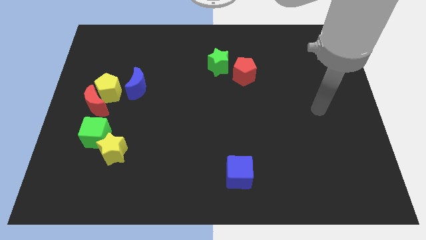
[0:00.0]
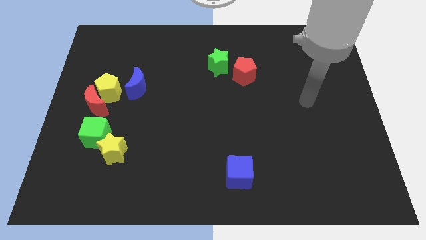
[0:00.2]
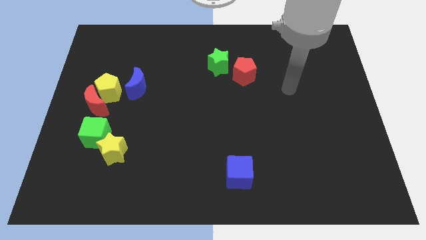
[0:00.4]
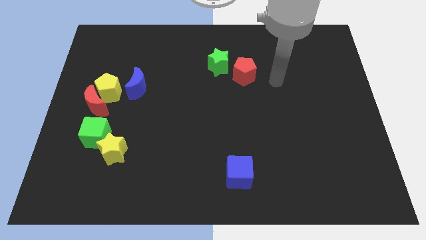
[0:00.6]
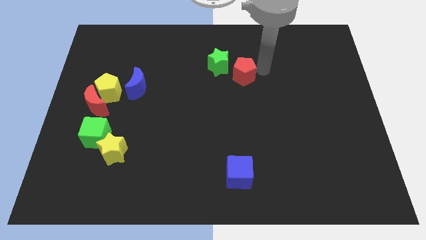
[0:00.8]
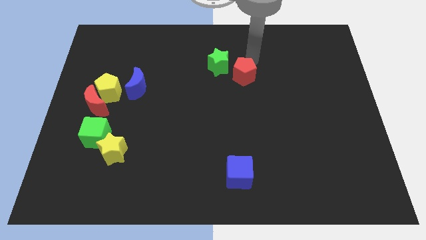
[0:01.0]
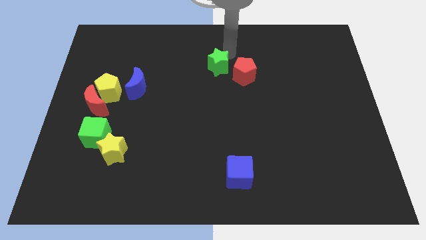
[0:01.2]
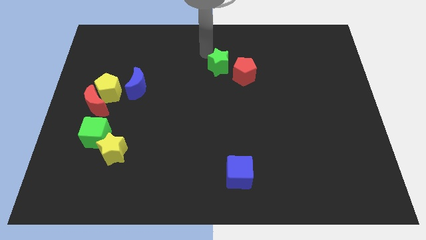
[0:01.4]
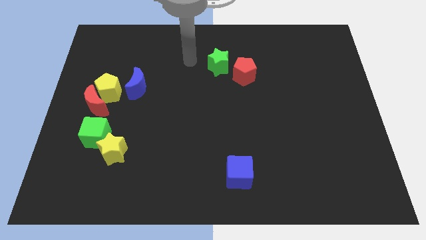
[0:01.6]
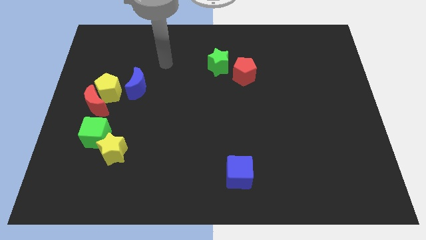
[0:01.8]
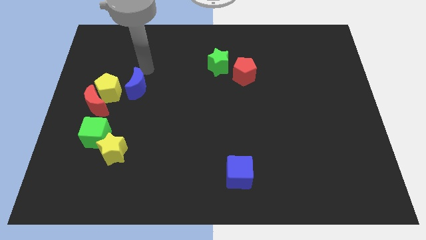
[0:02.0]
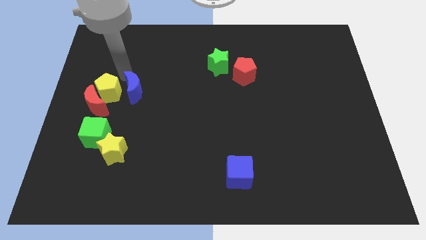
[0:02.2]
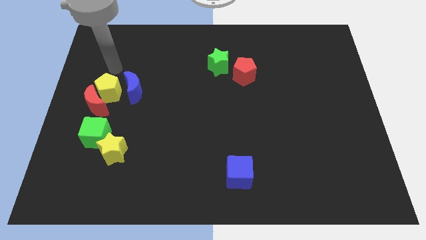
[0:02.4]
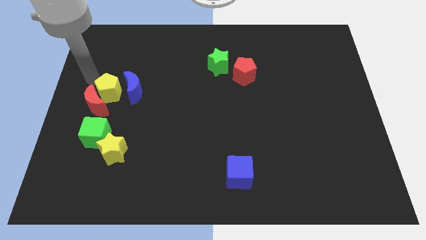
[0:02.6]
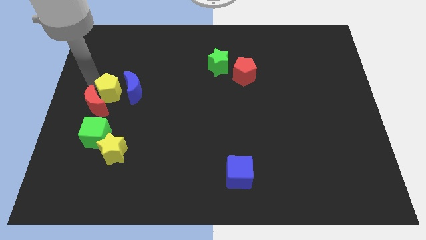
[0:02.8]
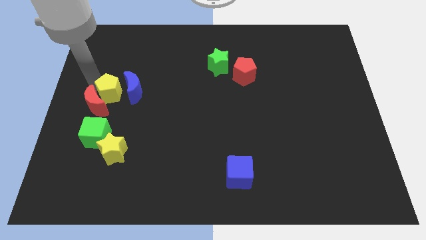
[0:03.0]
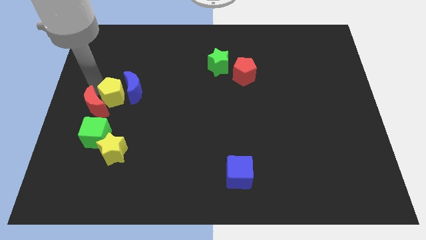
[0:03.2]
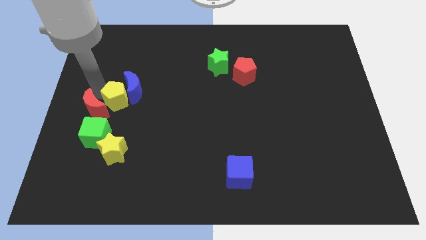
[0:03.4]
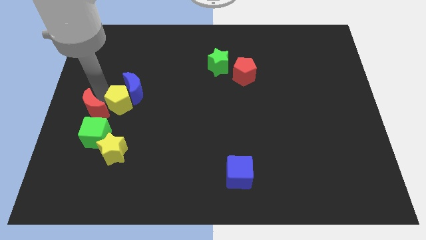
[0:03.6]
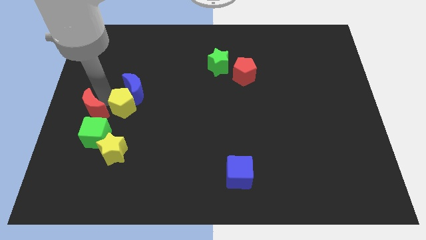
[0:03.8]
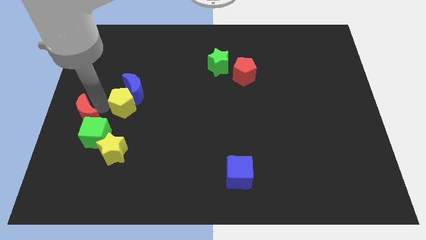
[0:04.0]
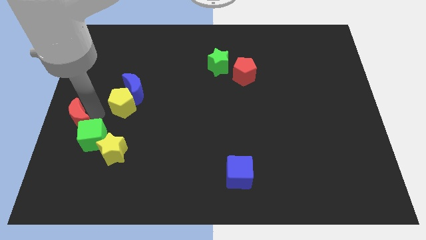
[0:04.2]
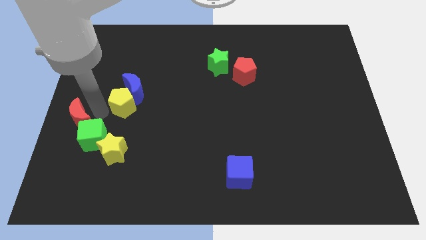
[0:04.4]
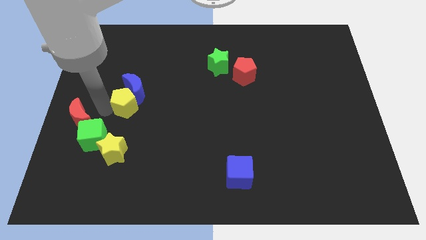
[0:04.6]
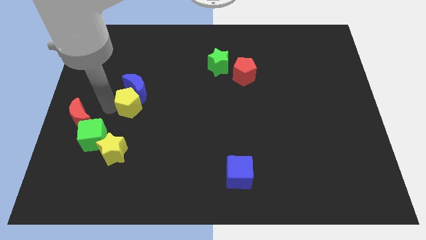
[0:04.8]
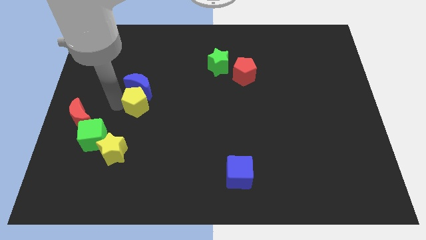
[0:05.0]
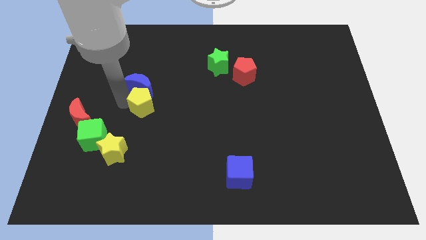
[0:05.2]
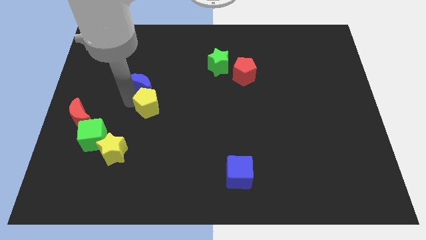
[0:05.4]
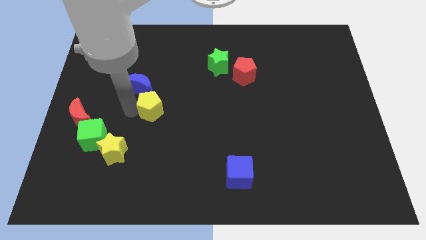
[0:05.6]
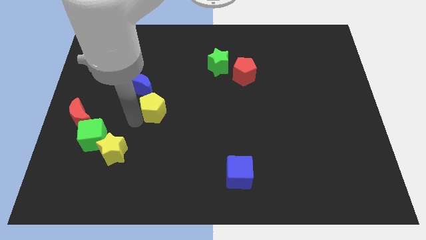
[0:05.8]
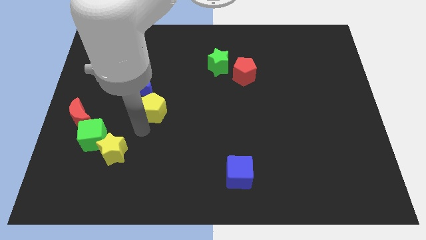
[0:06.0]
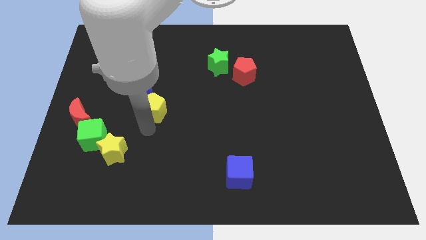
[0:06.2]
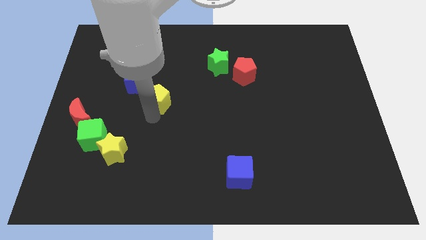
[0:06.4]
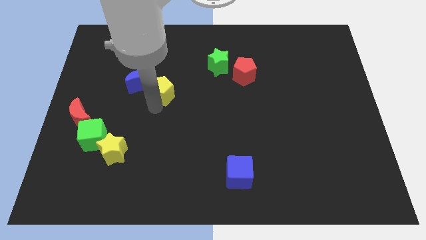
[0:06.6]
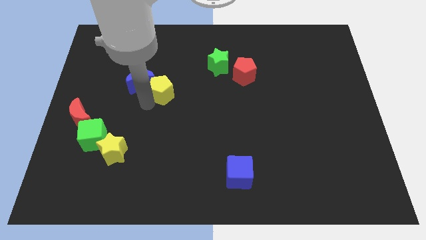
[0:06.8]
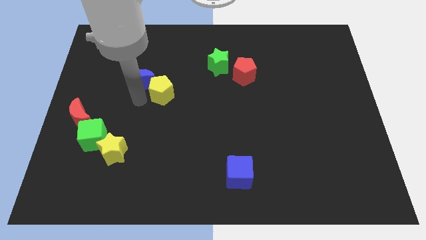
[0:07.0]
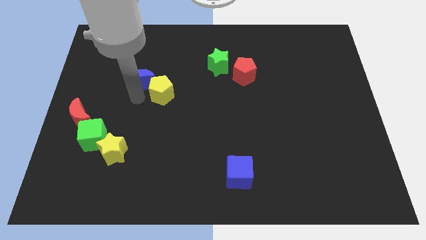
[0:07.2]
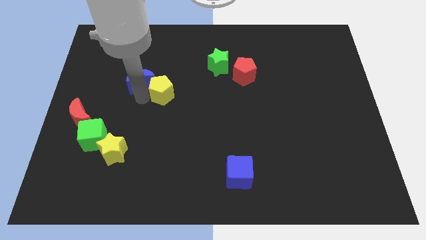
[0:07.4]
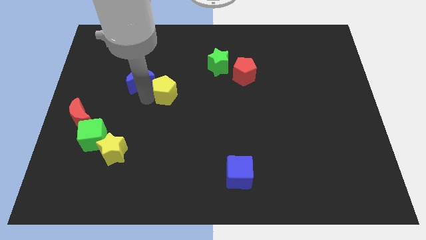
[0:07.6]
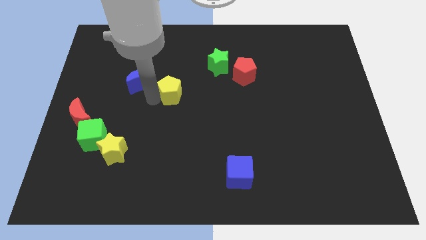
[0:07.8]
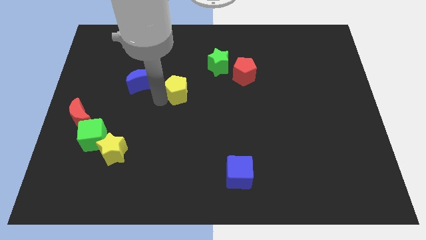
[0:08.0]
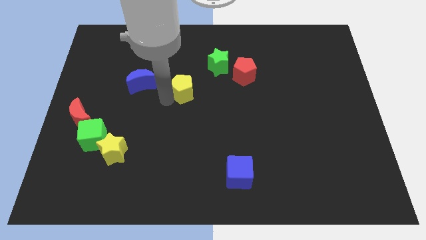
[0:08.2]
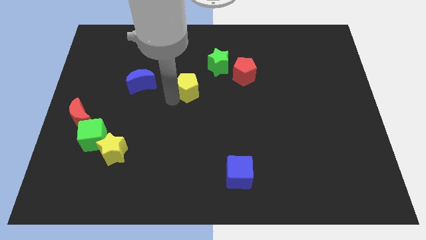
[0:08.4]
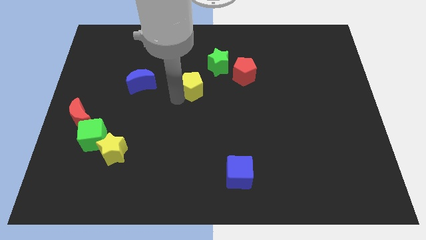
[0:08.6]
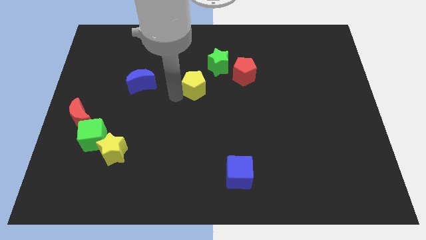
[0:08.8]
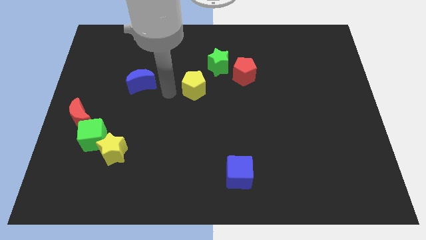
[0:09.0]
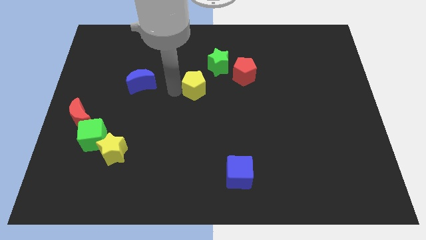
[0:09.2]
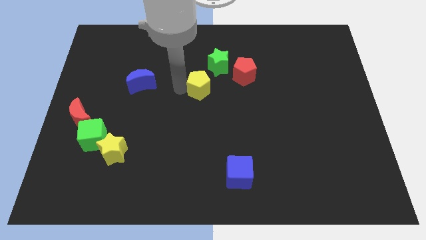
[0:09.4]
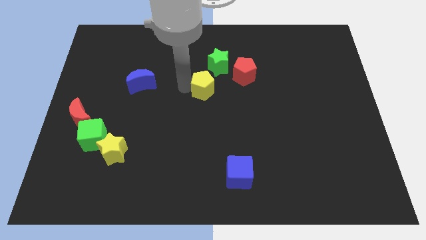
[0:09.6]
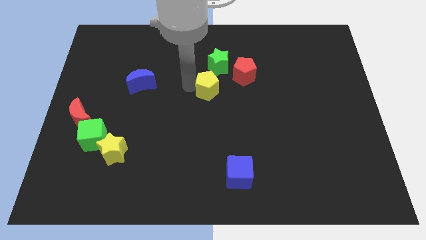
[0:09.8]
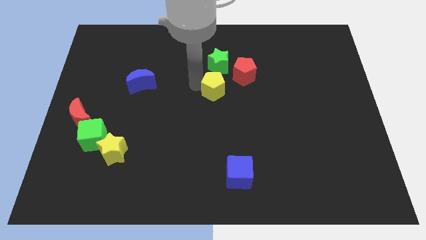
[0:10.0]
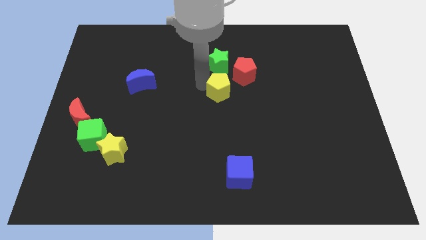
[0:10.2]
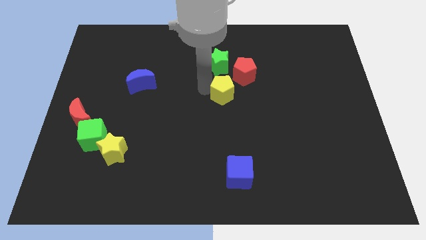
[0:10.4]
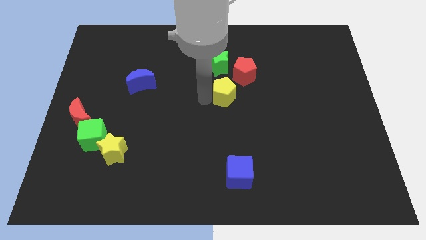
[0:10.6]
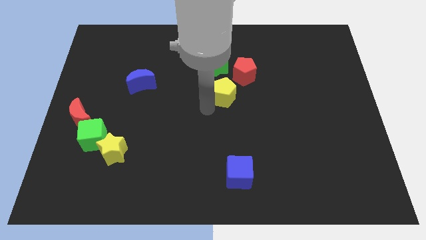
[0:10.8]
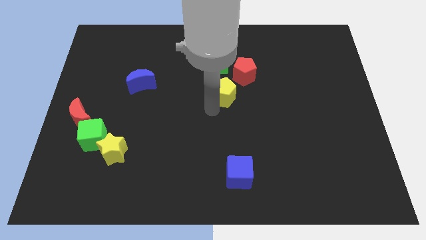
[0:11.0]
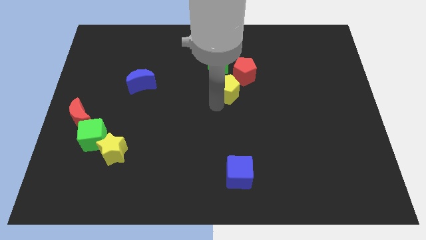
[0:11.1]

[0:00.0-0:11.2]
push the yellow pentagon diagonally down and to the right of the green star

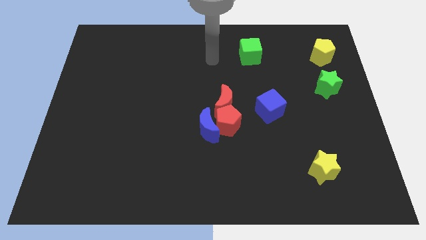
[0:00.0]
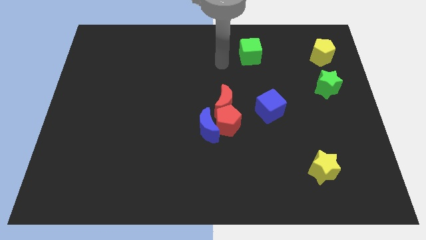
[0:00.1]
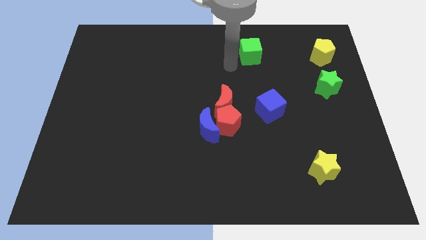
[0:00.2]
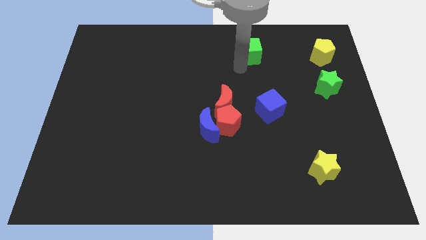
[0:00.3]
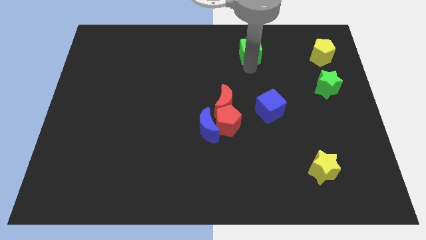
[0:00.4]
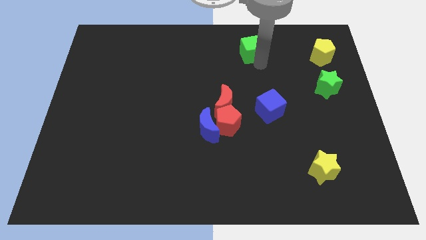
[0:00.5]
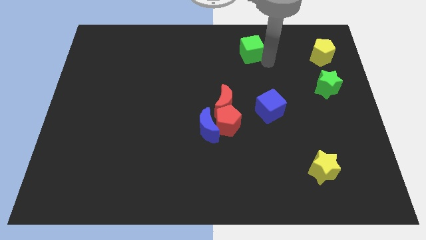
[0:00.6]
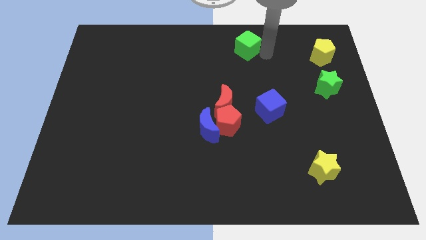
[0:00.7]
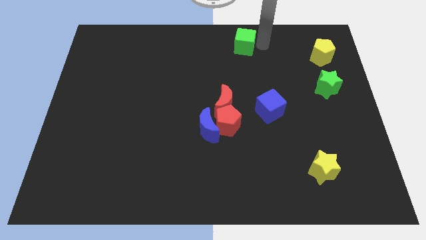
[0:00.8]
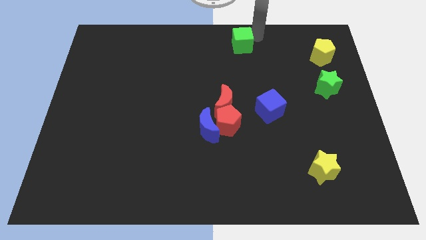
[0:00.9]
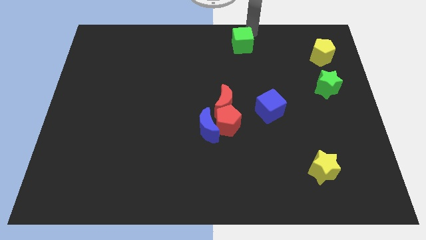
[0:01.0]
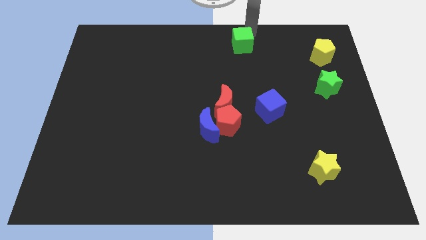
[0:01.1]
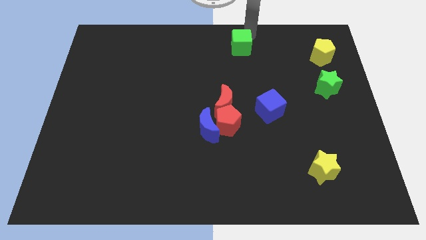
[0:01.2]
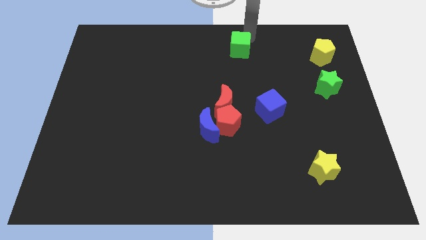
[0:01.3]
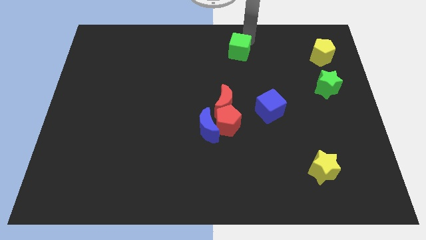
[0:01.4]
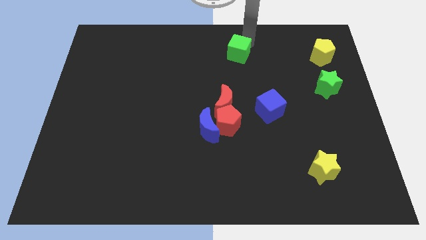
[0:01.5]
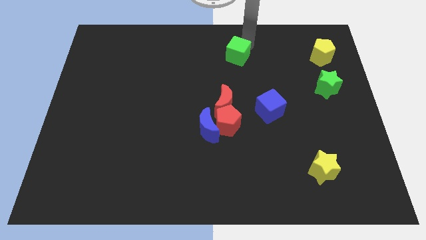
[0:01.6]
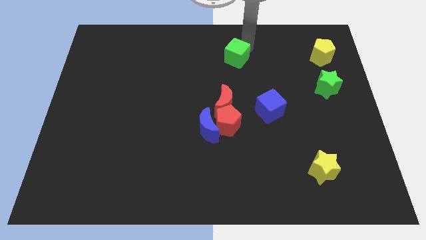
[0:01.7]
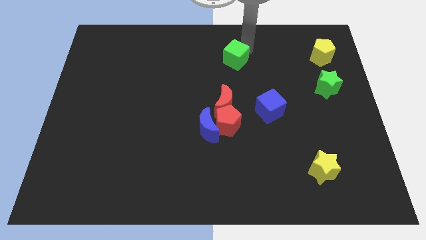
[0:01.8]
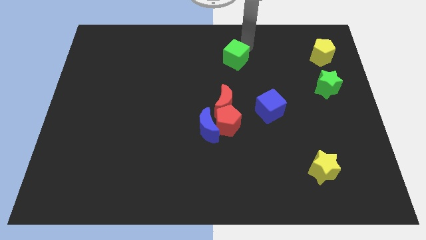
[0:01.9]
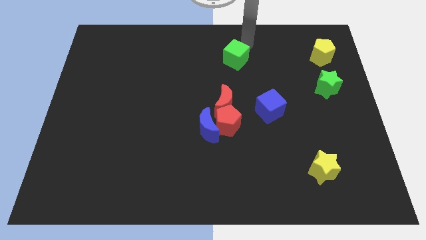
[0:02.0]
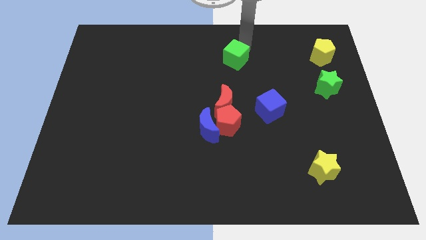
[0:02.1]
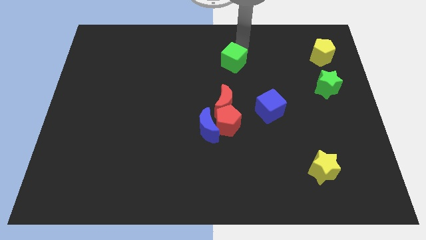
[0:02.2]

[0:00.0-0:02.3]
move the green cube to the top side of the red moon
